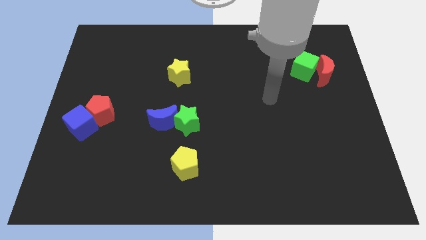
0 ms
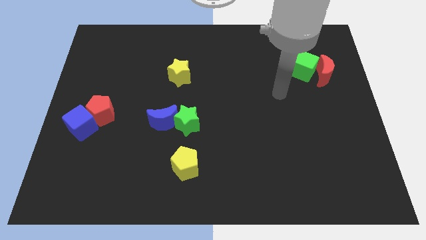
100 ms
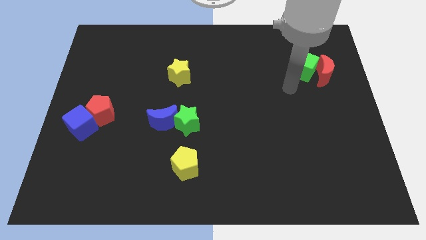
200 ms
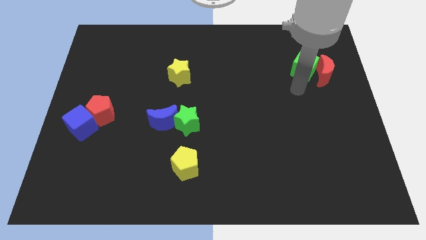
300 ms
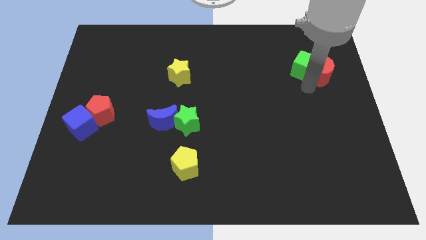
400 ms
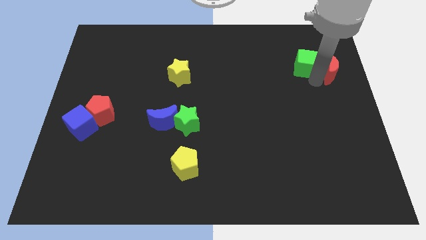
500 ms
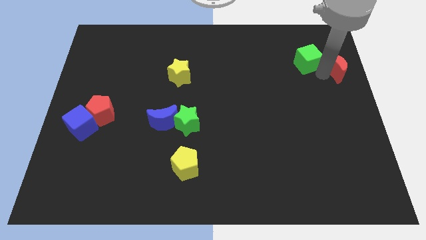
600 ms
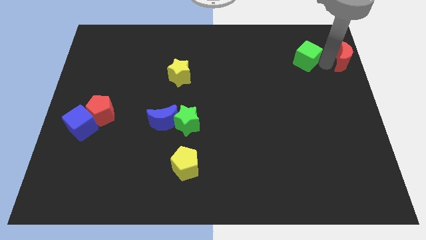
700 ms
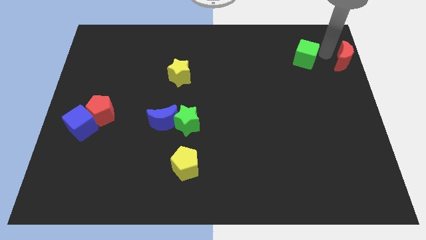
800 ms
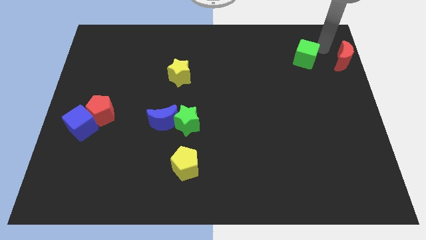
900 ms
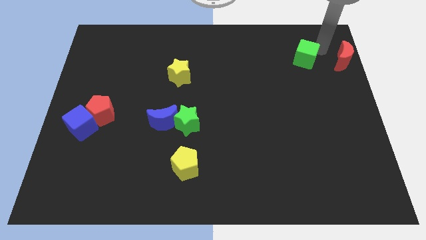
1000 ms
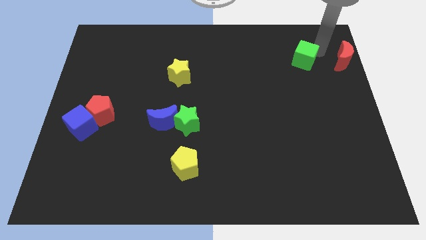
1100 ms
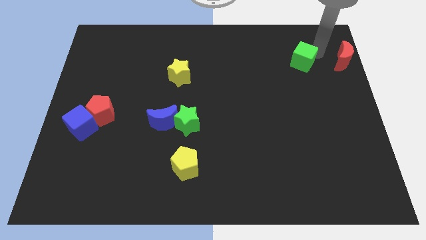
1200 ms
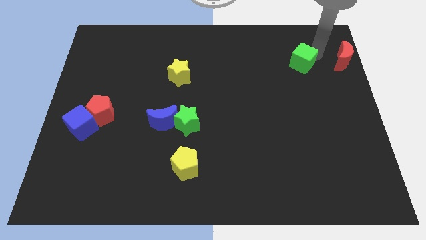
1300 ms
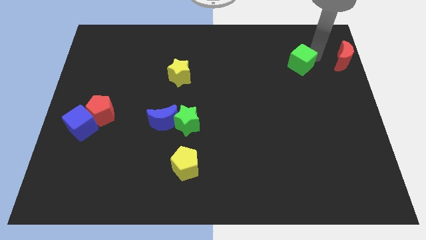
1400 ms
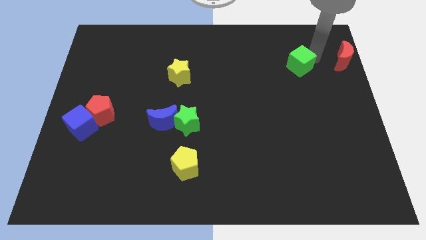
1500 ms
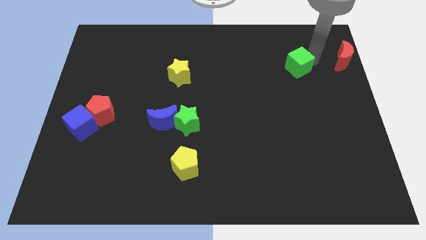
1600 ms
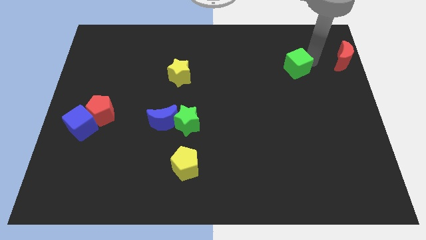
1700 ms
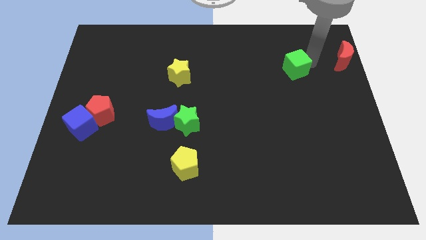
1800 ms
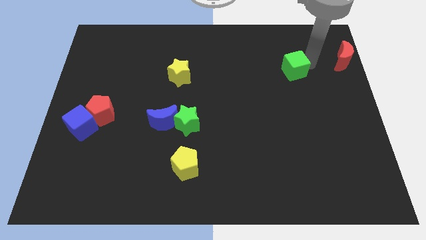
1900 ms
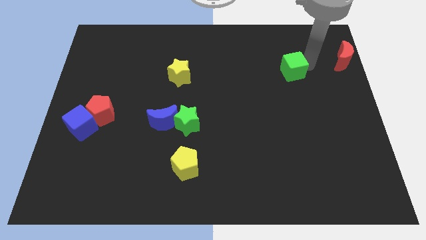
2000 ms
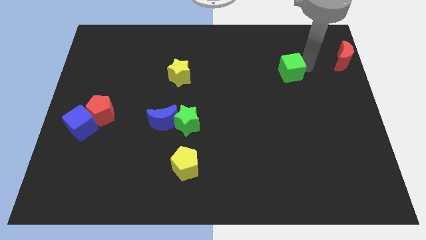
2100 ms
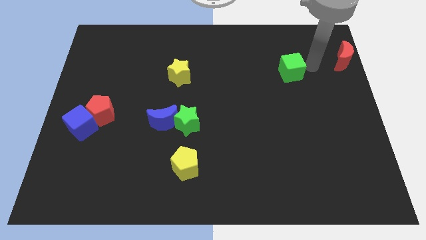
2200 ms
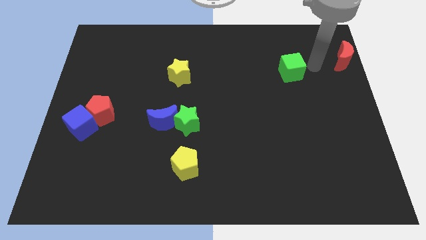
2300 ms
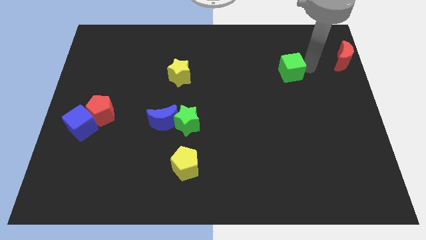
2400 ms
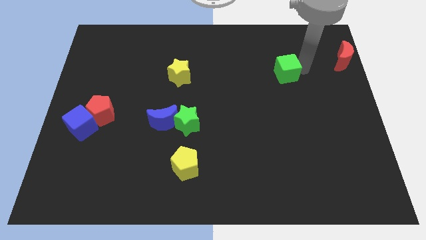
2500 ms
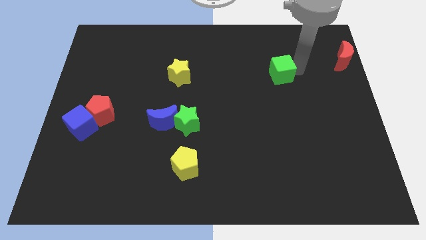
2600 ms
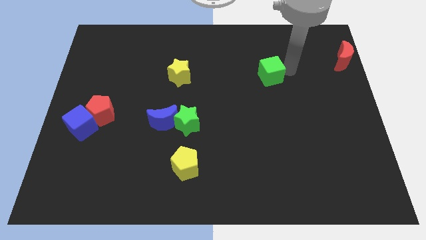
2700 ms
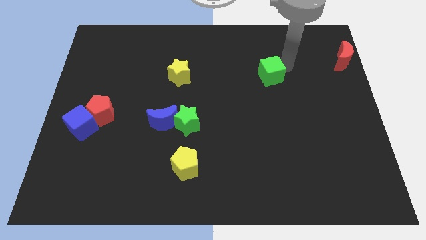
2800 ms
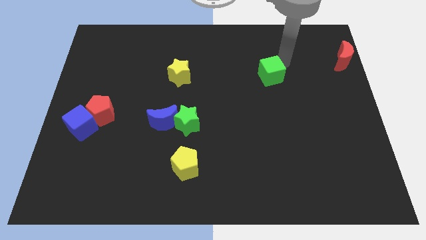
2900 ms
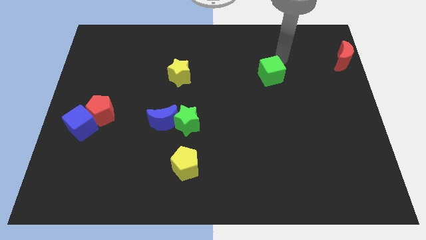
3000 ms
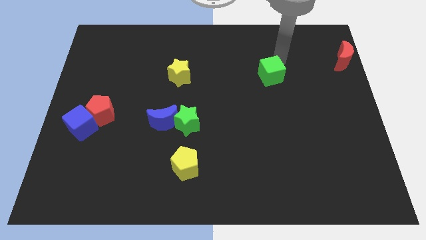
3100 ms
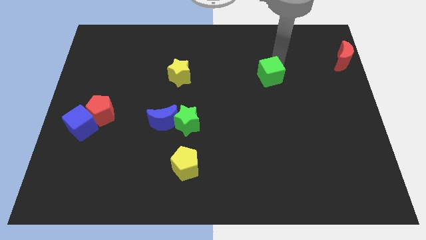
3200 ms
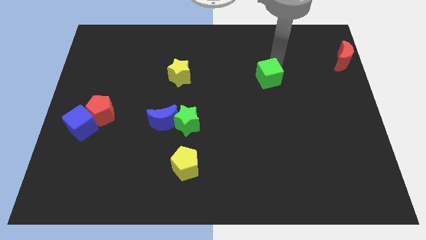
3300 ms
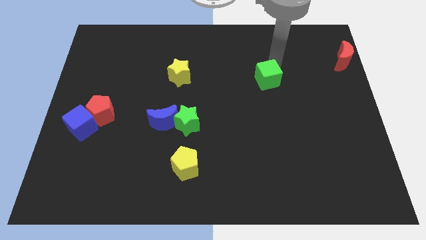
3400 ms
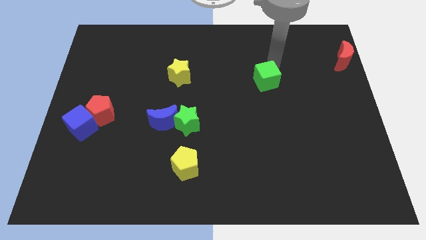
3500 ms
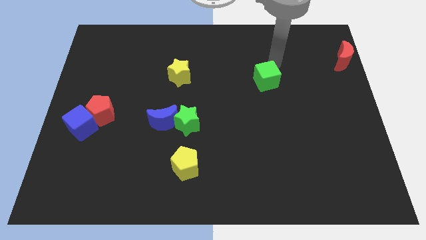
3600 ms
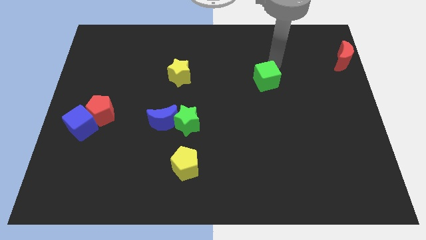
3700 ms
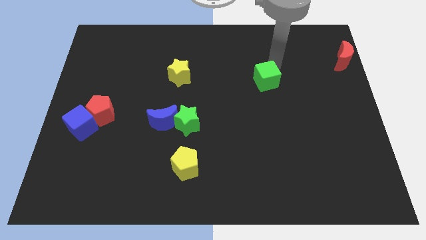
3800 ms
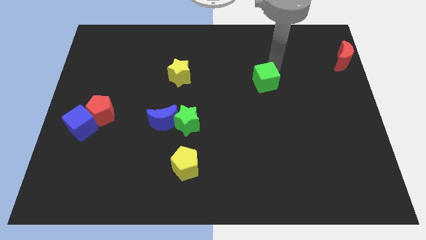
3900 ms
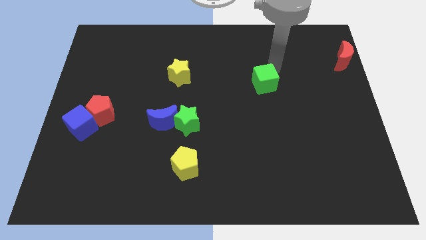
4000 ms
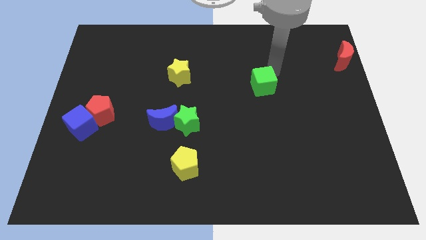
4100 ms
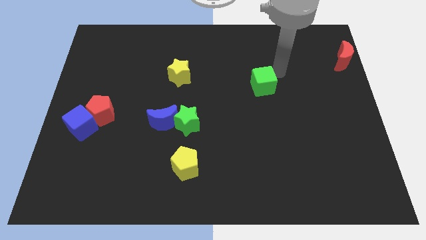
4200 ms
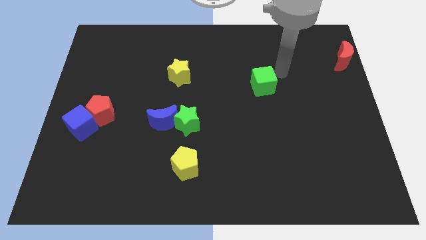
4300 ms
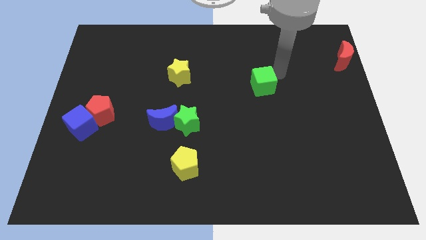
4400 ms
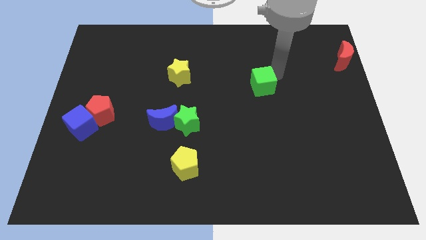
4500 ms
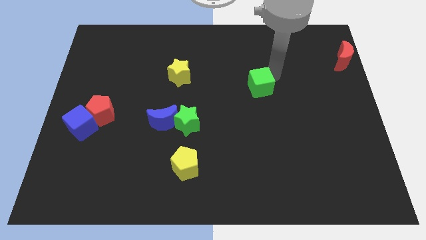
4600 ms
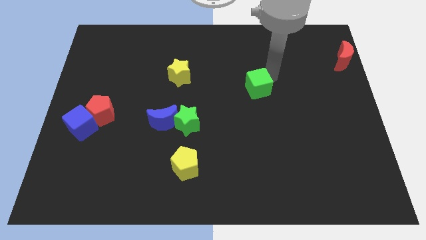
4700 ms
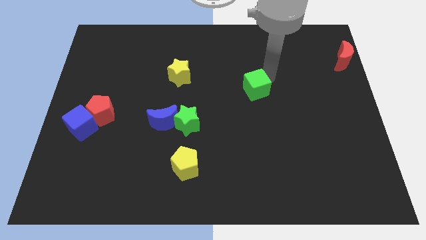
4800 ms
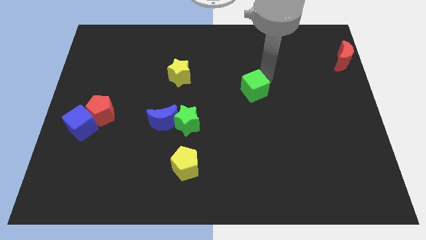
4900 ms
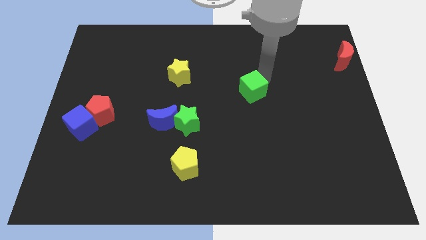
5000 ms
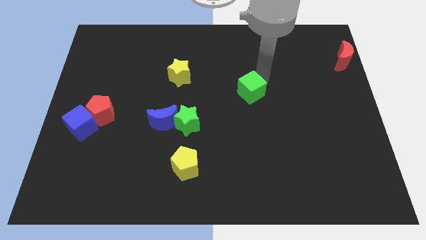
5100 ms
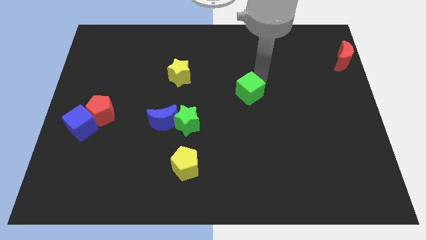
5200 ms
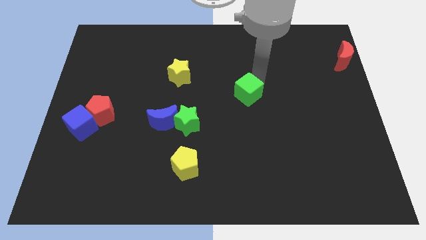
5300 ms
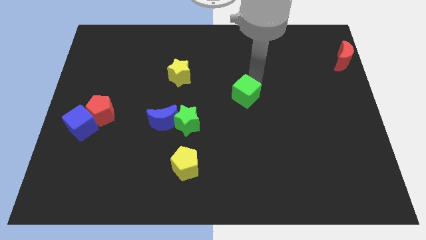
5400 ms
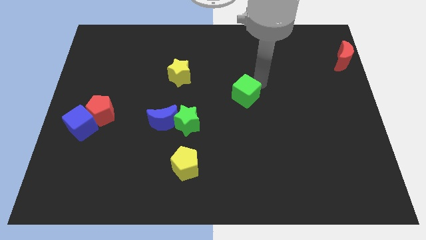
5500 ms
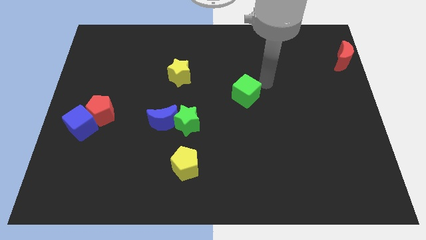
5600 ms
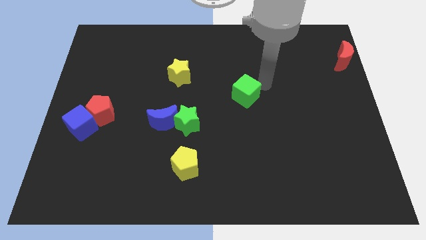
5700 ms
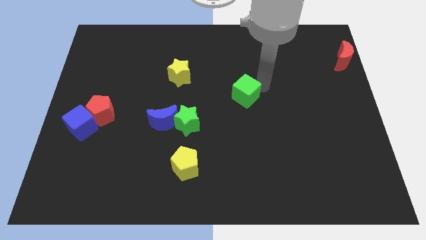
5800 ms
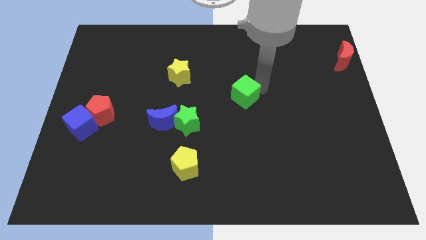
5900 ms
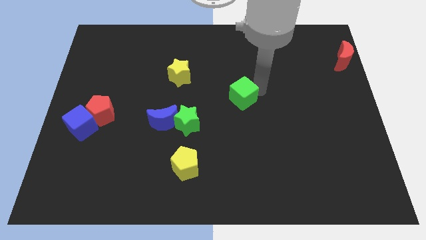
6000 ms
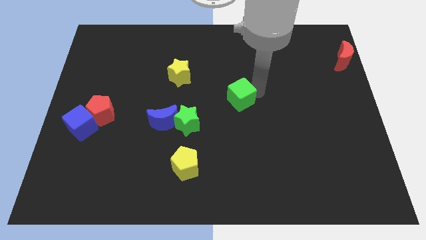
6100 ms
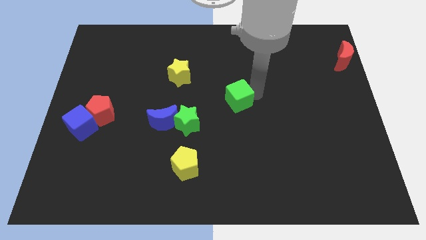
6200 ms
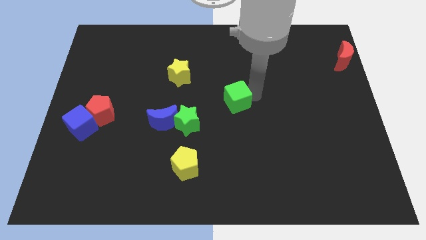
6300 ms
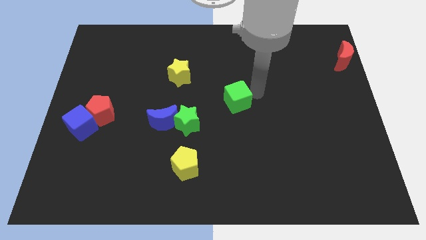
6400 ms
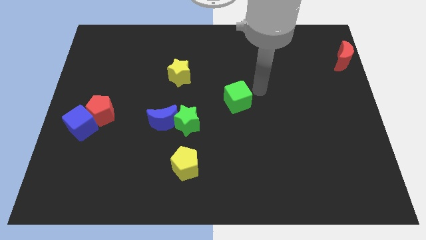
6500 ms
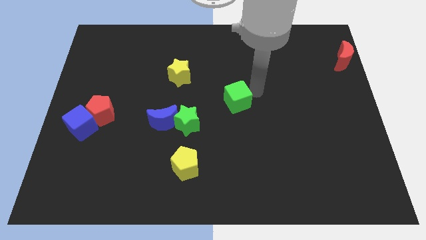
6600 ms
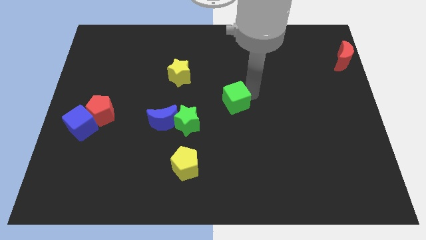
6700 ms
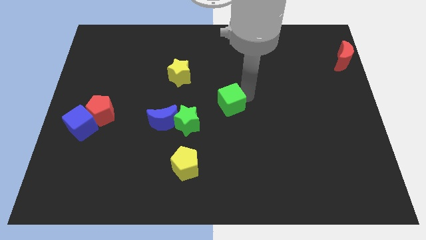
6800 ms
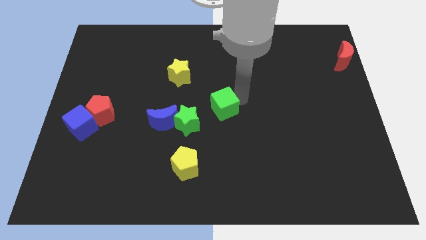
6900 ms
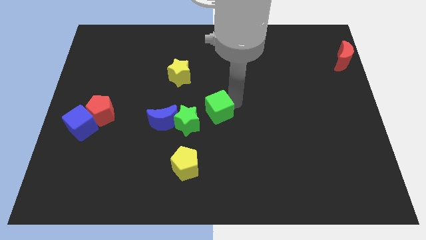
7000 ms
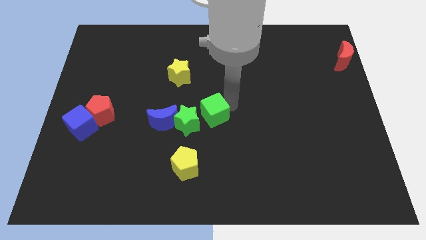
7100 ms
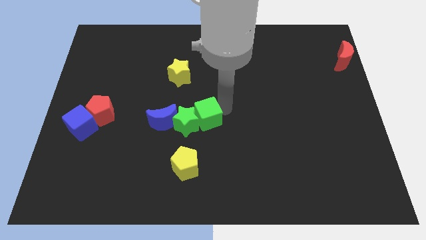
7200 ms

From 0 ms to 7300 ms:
put the green cube next to the green star
